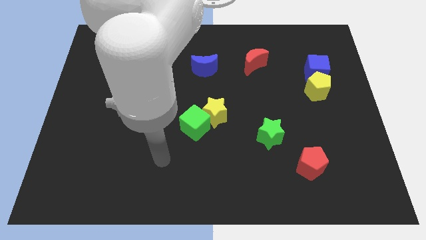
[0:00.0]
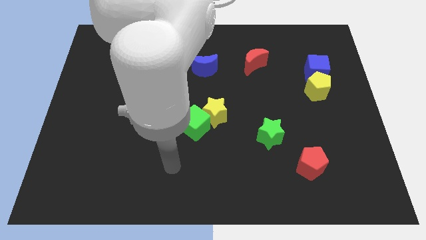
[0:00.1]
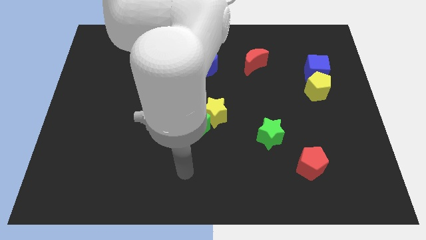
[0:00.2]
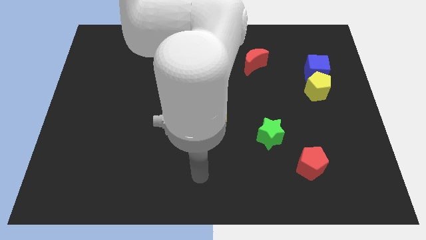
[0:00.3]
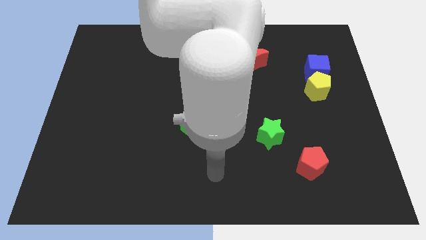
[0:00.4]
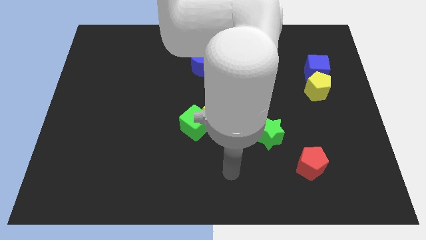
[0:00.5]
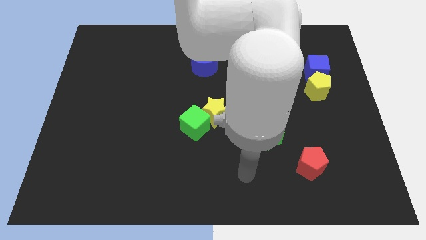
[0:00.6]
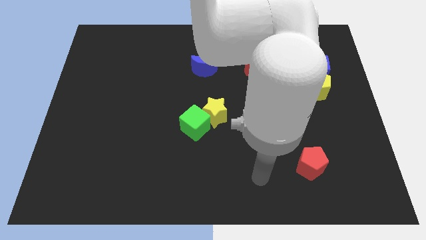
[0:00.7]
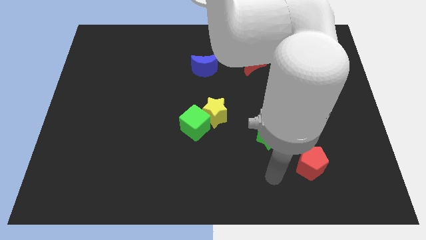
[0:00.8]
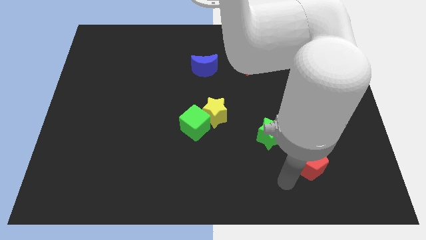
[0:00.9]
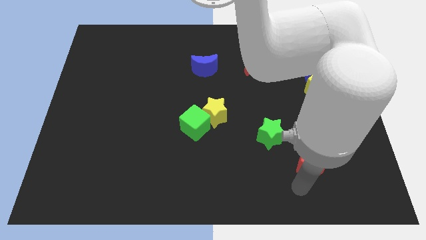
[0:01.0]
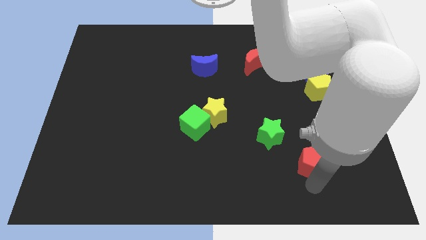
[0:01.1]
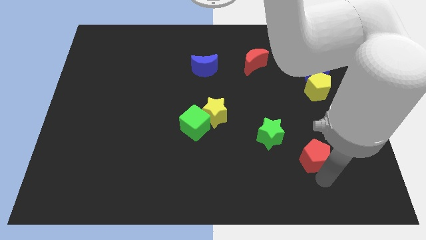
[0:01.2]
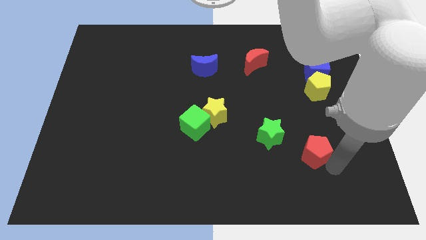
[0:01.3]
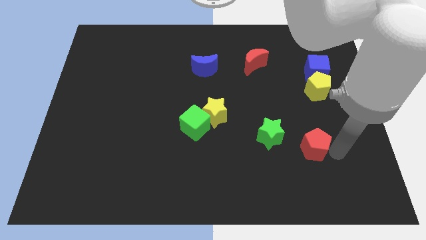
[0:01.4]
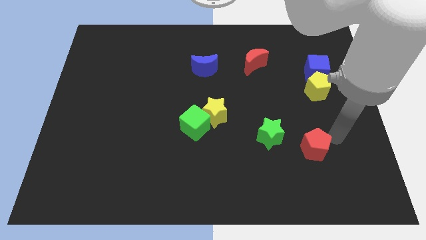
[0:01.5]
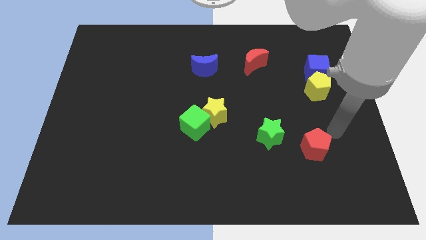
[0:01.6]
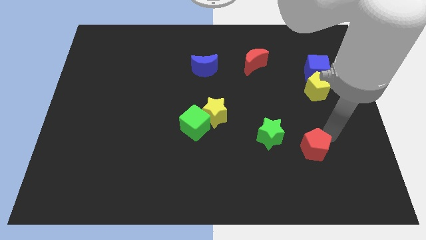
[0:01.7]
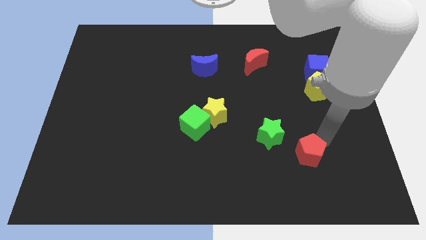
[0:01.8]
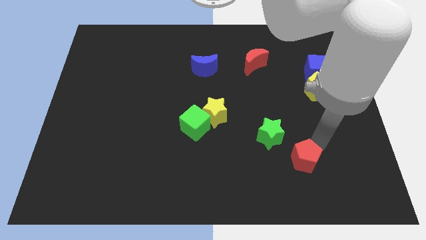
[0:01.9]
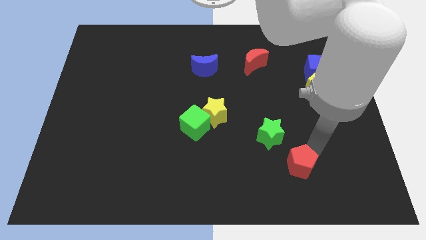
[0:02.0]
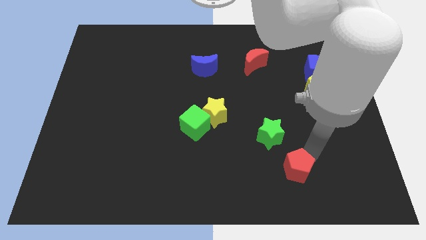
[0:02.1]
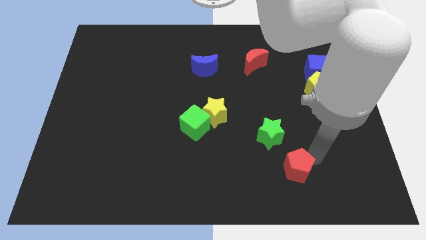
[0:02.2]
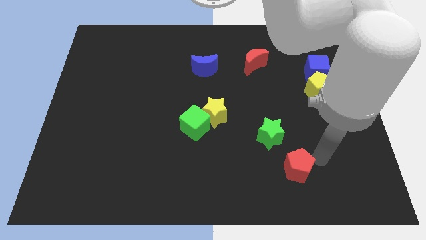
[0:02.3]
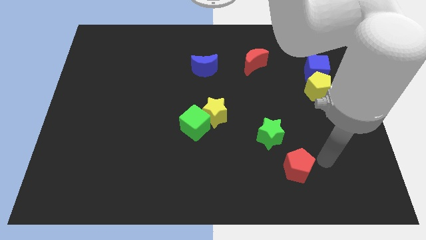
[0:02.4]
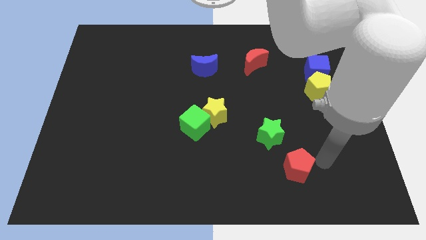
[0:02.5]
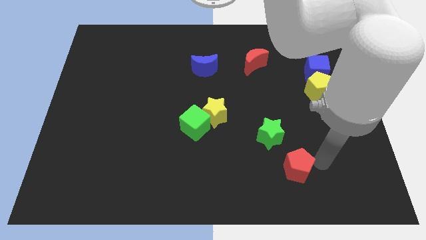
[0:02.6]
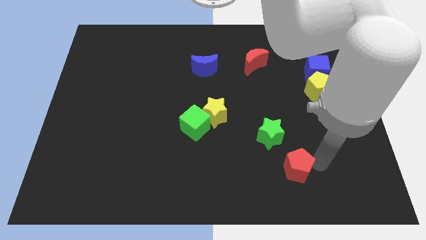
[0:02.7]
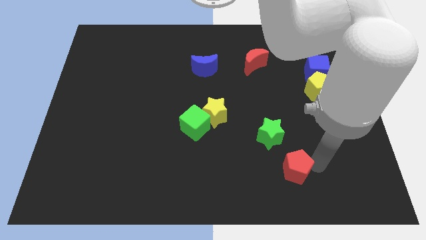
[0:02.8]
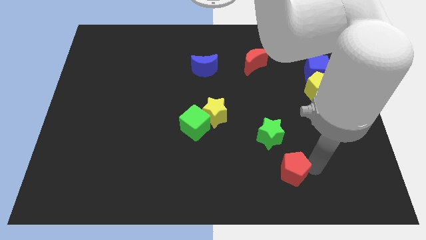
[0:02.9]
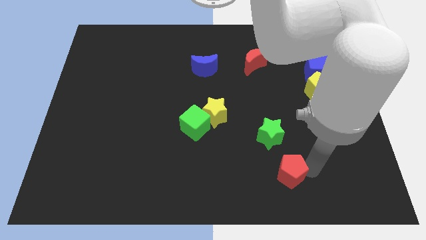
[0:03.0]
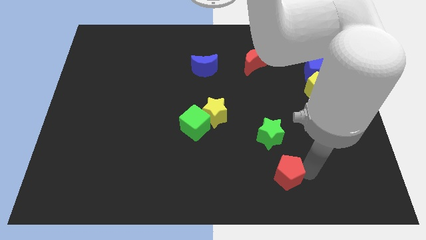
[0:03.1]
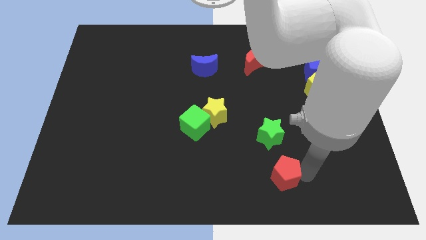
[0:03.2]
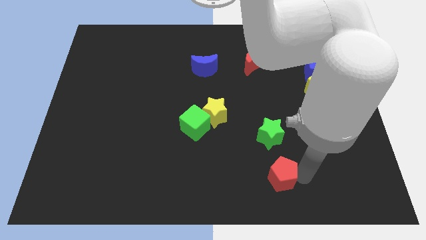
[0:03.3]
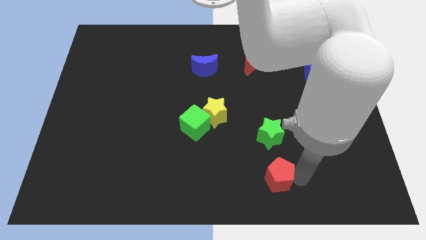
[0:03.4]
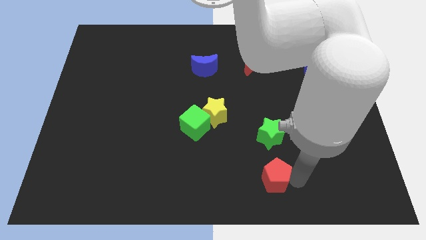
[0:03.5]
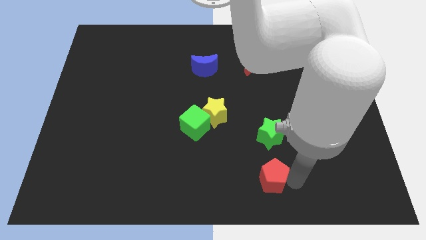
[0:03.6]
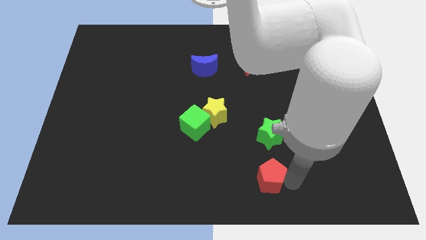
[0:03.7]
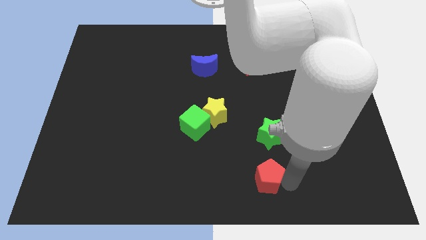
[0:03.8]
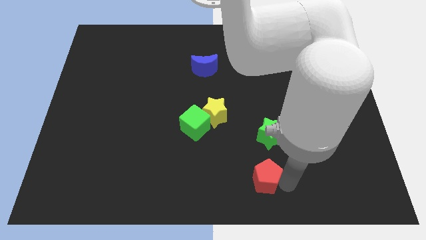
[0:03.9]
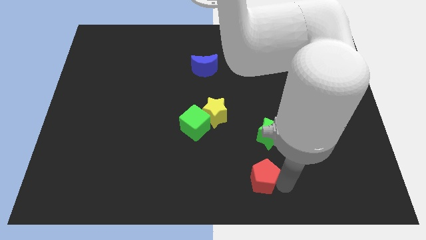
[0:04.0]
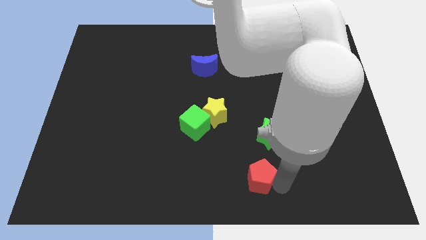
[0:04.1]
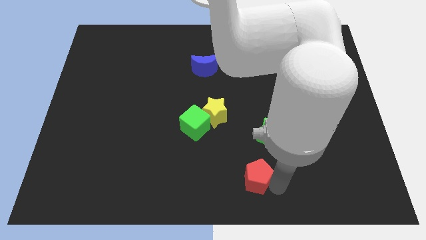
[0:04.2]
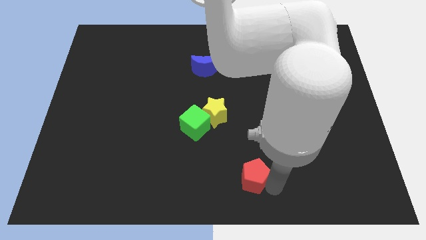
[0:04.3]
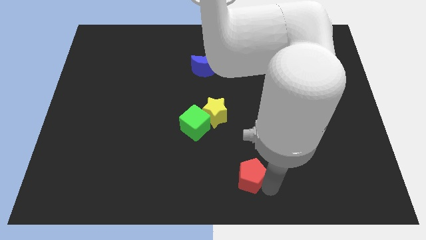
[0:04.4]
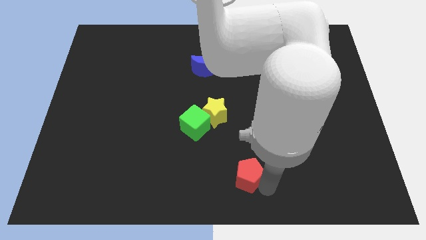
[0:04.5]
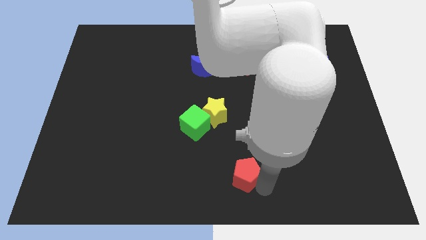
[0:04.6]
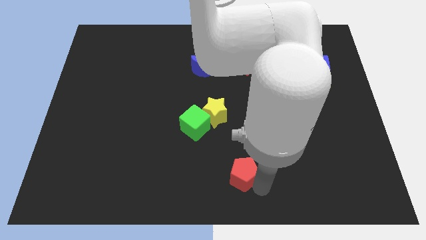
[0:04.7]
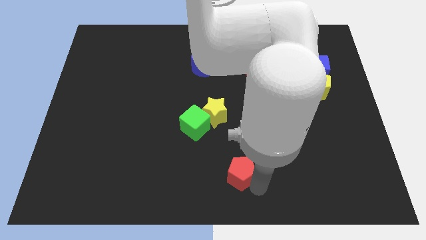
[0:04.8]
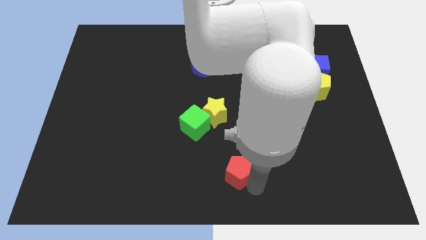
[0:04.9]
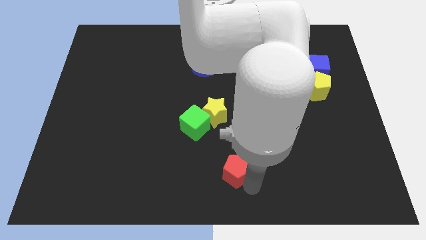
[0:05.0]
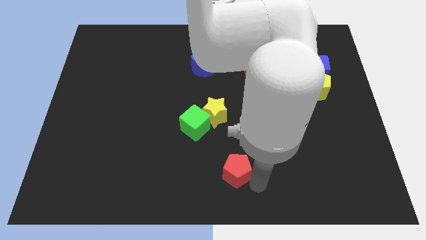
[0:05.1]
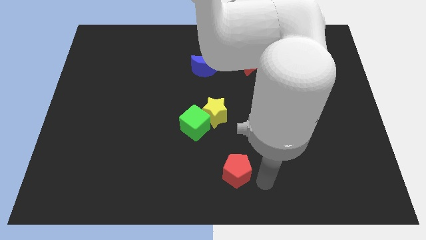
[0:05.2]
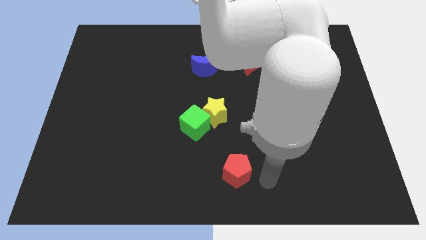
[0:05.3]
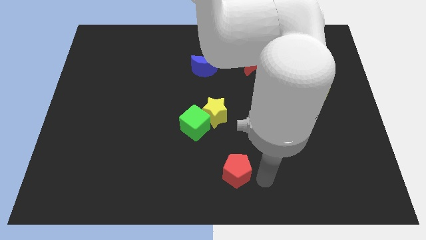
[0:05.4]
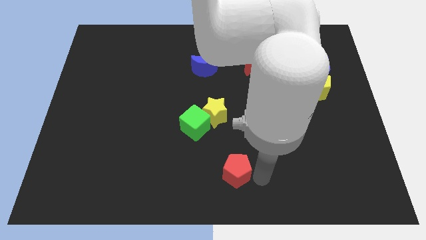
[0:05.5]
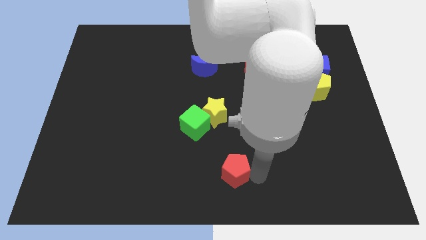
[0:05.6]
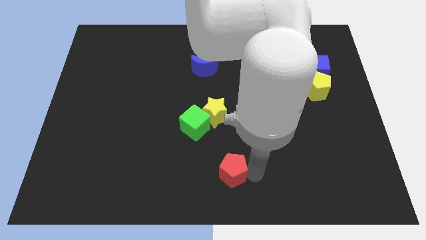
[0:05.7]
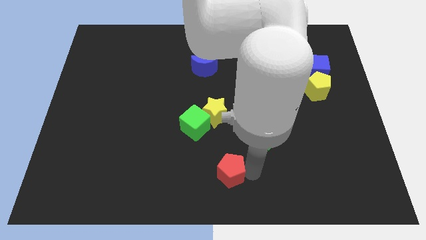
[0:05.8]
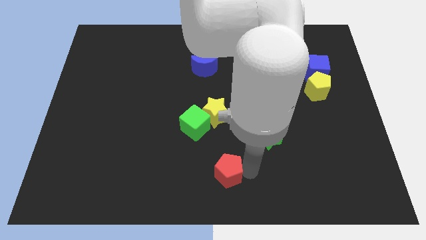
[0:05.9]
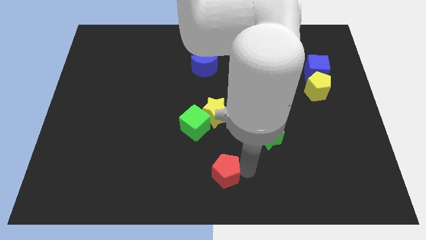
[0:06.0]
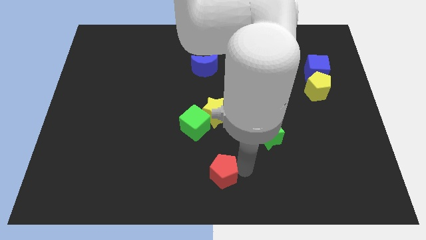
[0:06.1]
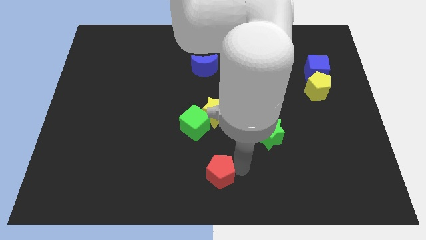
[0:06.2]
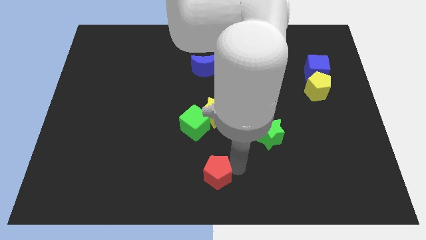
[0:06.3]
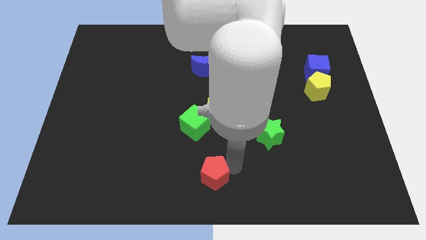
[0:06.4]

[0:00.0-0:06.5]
move the red pentagon left

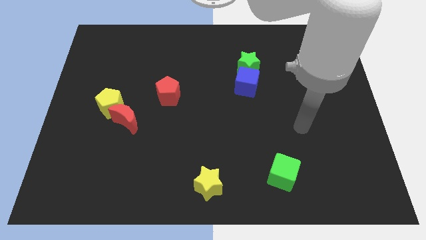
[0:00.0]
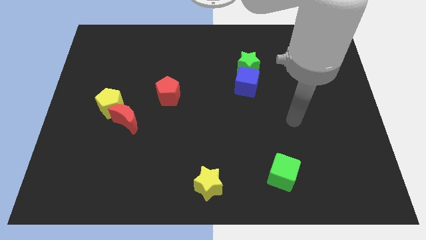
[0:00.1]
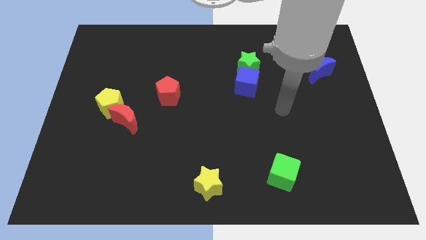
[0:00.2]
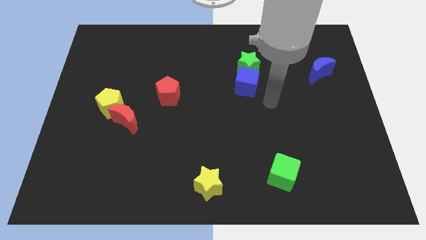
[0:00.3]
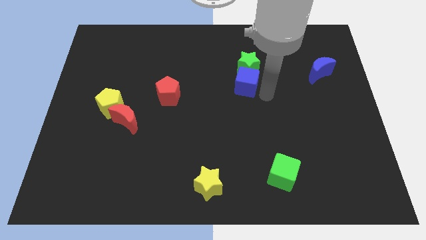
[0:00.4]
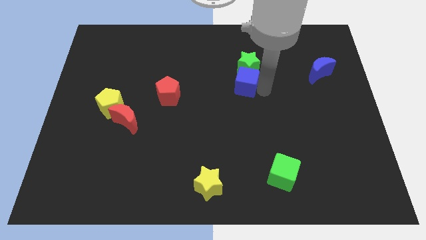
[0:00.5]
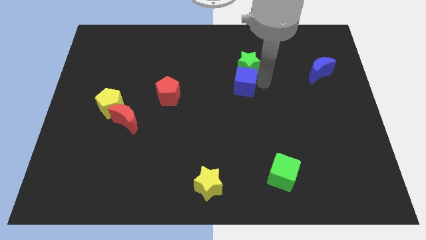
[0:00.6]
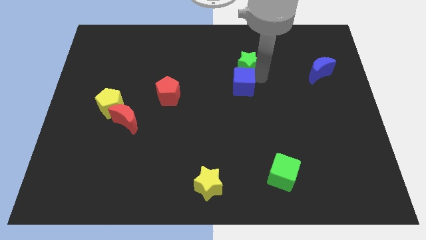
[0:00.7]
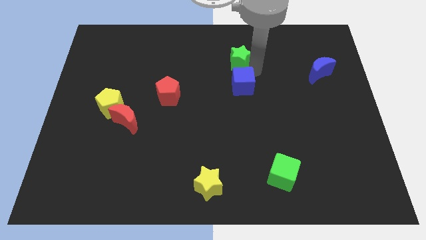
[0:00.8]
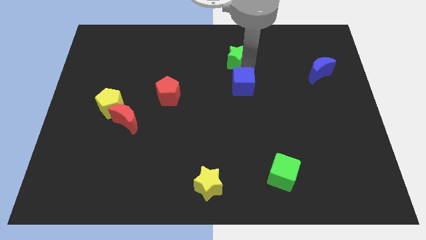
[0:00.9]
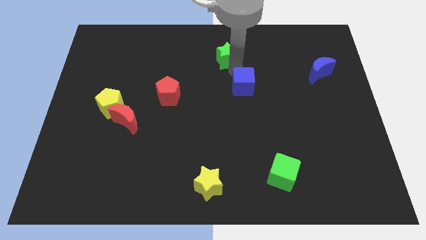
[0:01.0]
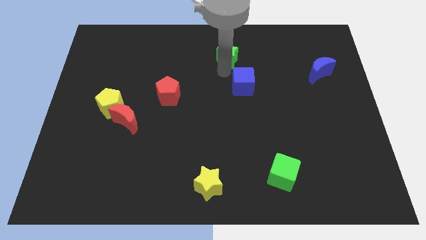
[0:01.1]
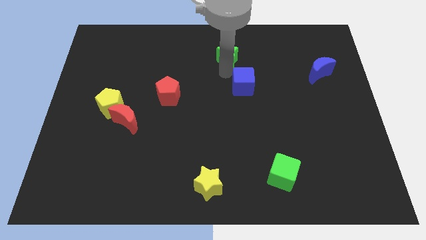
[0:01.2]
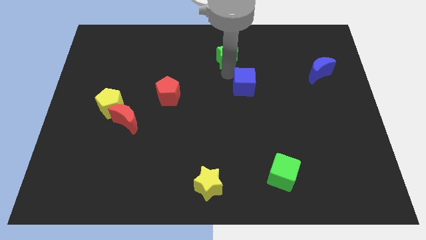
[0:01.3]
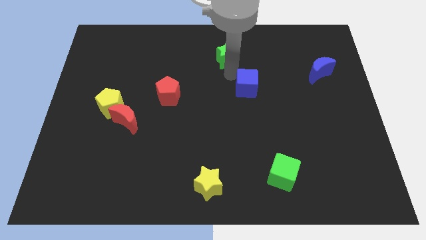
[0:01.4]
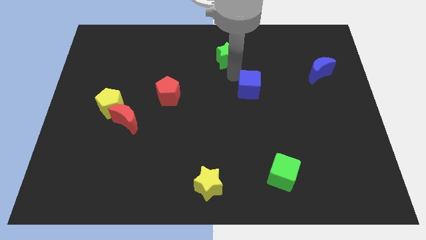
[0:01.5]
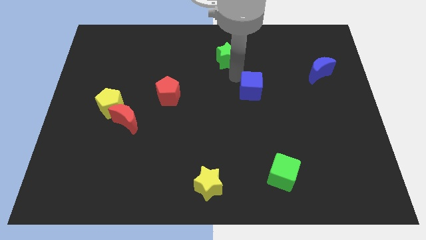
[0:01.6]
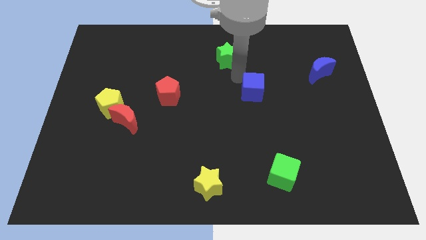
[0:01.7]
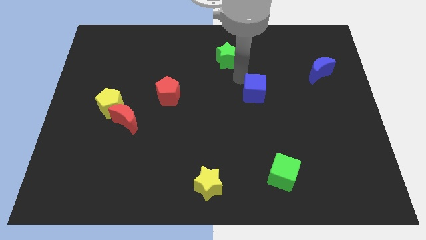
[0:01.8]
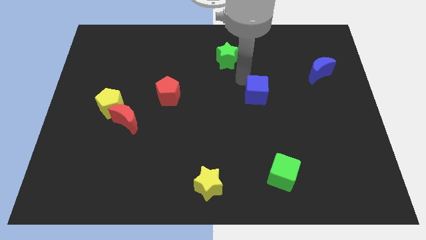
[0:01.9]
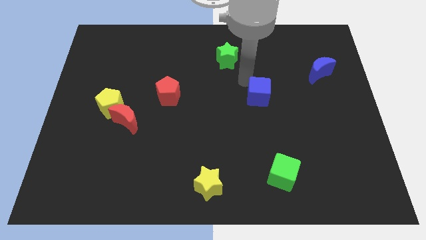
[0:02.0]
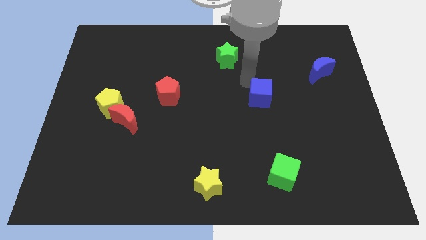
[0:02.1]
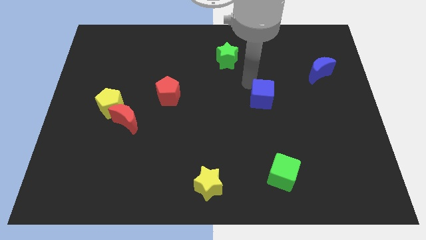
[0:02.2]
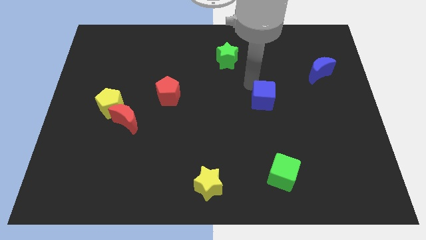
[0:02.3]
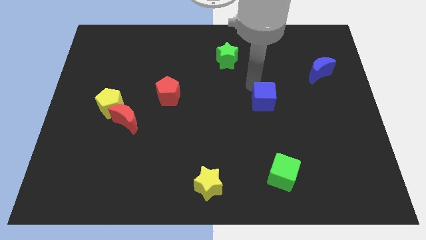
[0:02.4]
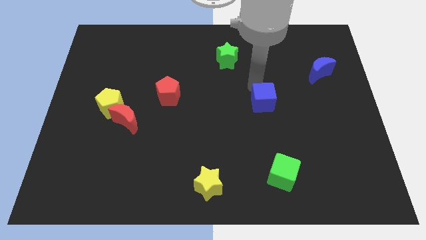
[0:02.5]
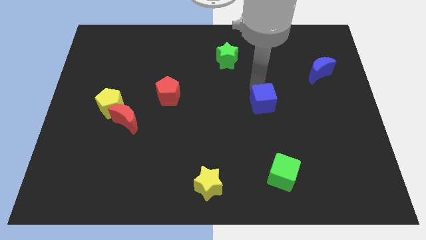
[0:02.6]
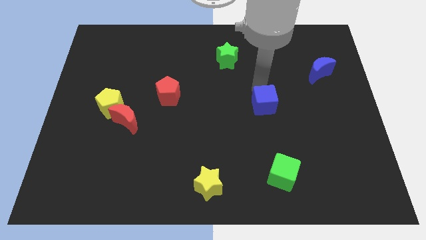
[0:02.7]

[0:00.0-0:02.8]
push the blue cube downwards and to the right somewhat
